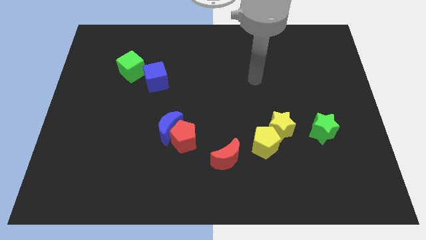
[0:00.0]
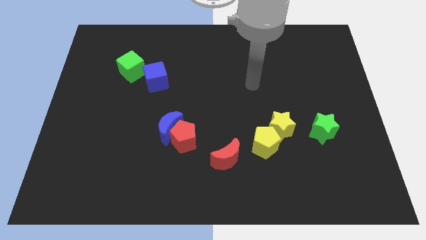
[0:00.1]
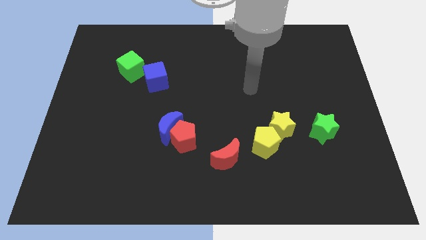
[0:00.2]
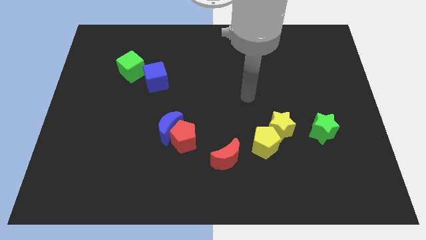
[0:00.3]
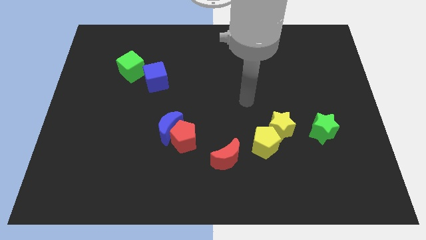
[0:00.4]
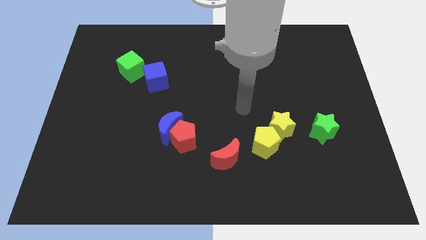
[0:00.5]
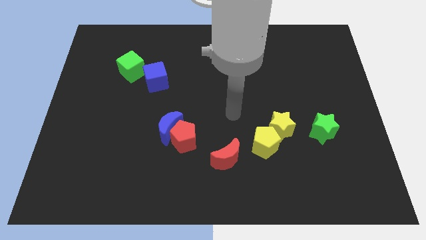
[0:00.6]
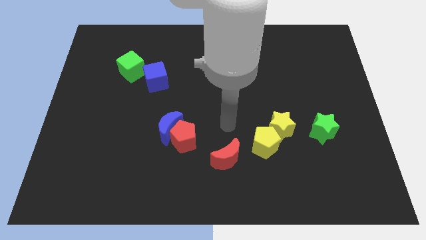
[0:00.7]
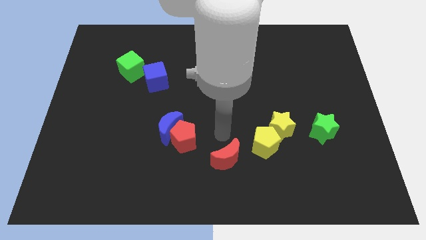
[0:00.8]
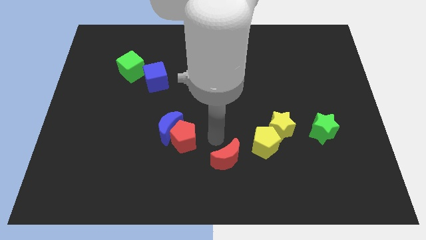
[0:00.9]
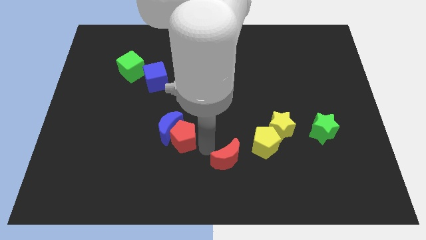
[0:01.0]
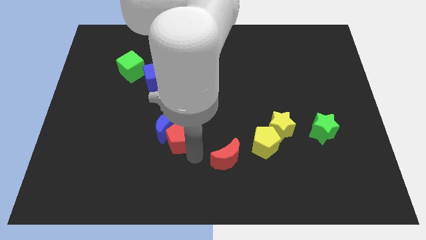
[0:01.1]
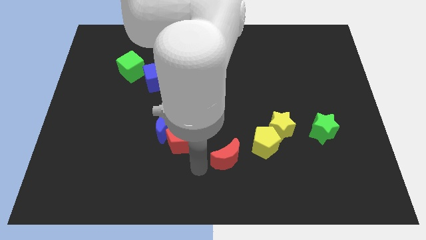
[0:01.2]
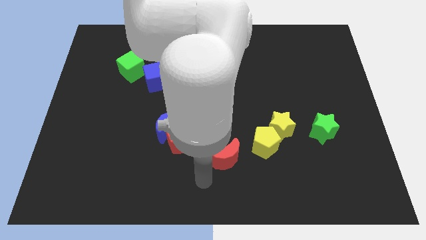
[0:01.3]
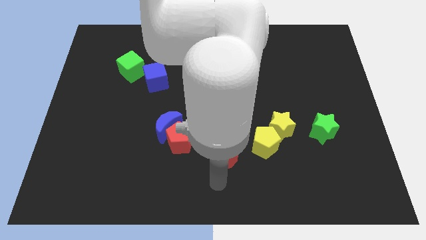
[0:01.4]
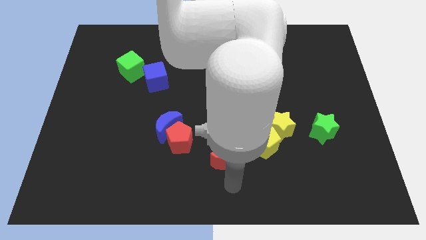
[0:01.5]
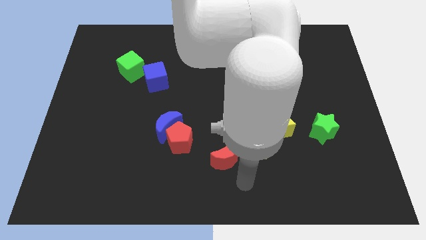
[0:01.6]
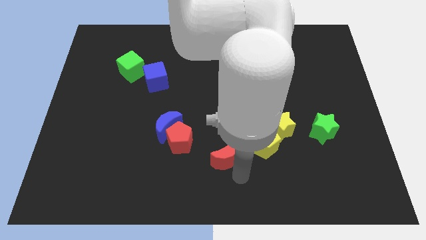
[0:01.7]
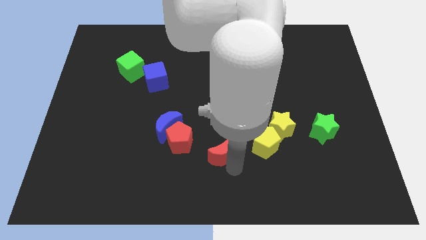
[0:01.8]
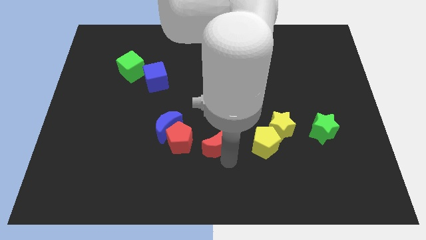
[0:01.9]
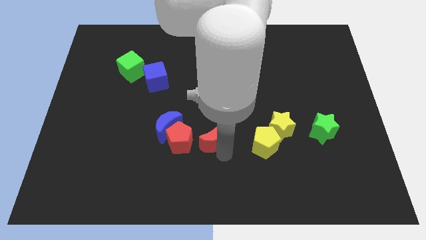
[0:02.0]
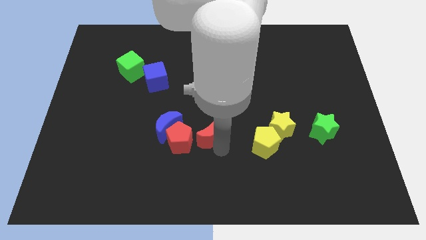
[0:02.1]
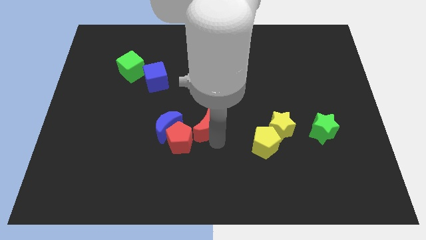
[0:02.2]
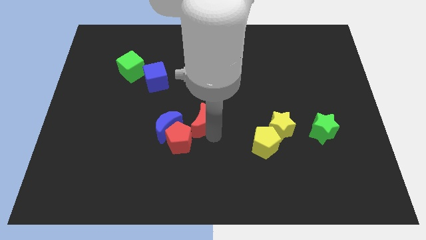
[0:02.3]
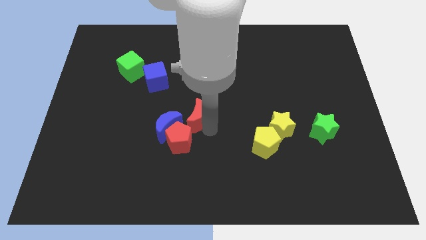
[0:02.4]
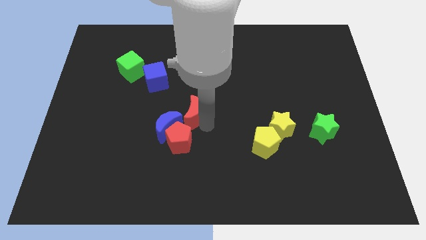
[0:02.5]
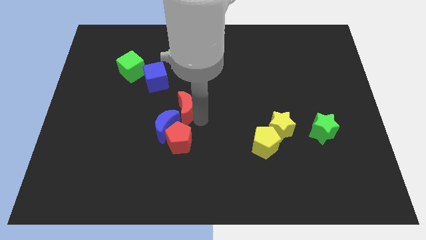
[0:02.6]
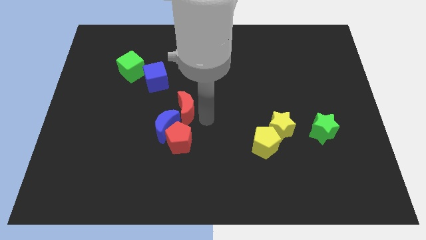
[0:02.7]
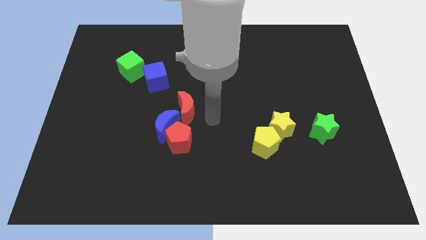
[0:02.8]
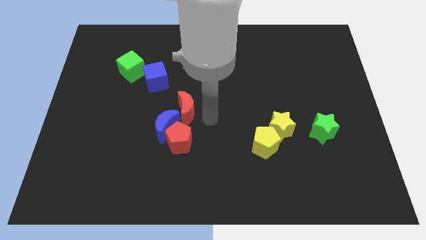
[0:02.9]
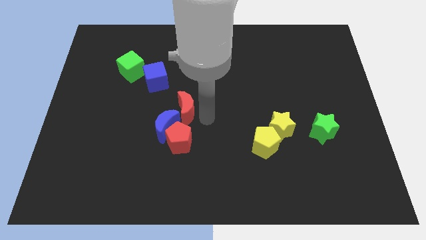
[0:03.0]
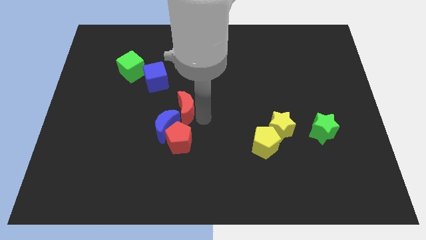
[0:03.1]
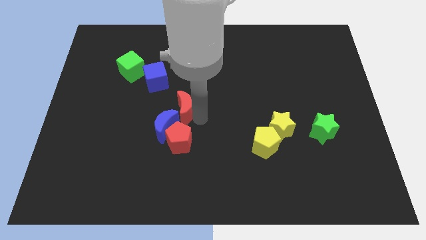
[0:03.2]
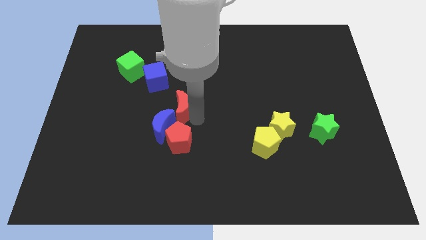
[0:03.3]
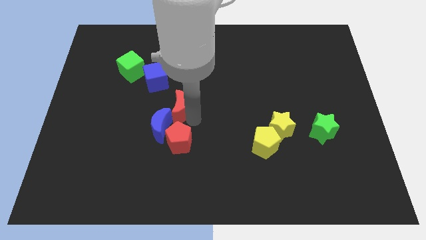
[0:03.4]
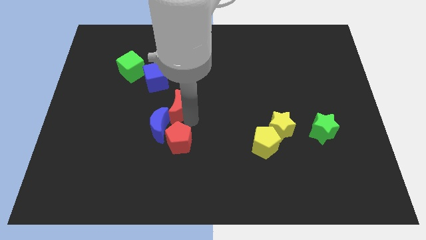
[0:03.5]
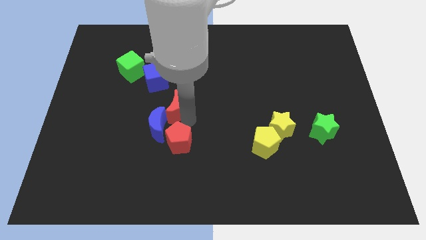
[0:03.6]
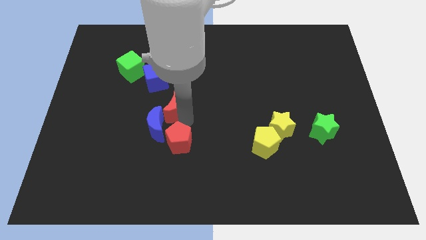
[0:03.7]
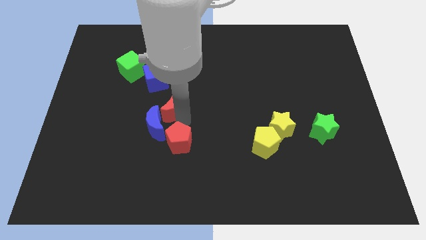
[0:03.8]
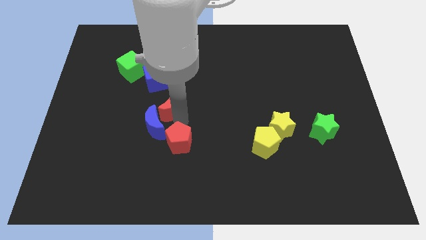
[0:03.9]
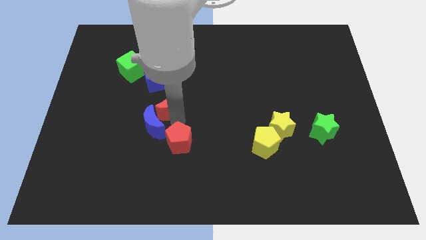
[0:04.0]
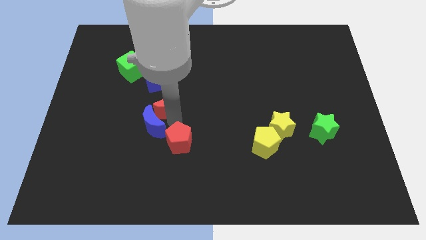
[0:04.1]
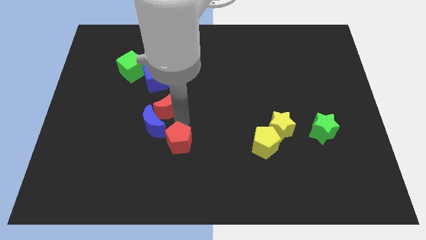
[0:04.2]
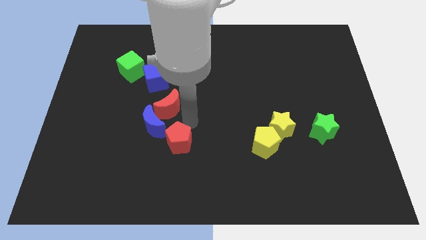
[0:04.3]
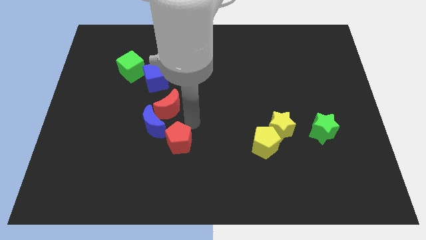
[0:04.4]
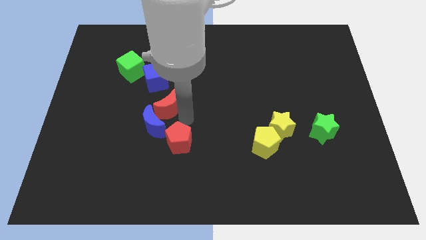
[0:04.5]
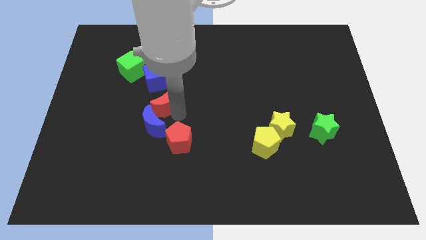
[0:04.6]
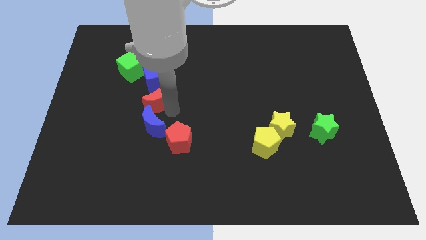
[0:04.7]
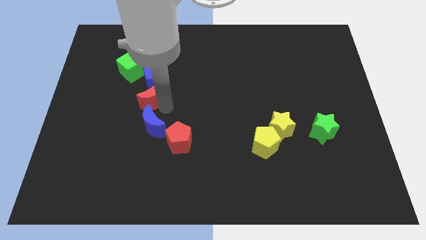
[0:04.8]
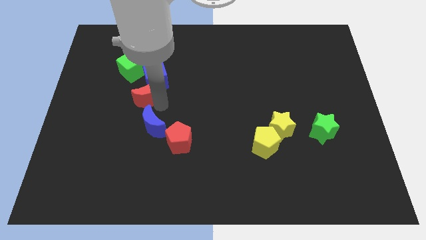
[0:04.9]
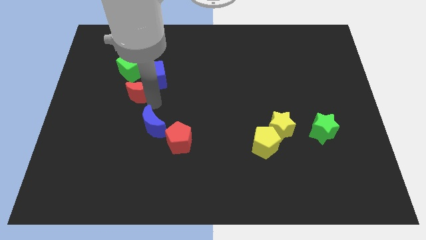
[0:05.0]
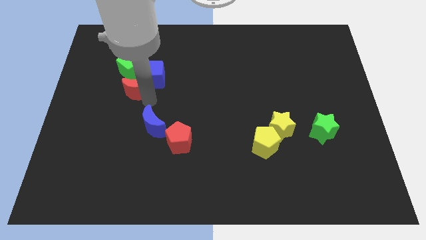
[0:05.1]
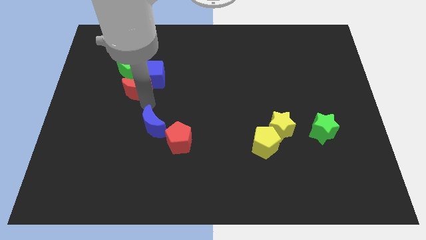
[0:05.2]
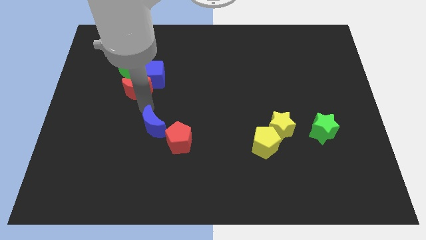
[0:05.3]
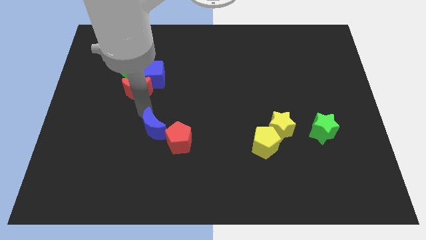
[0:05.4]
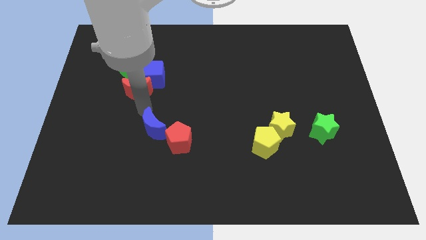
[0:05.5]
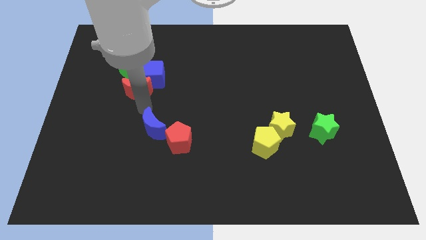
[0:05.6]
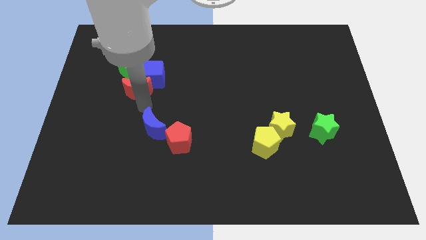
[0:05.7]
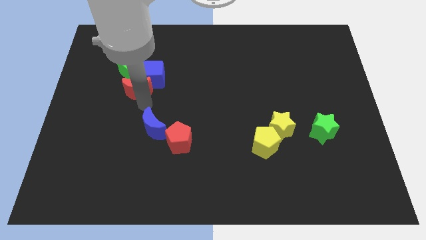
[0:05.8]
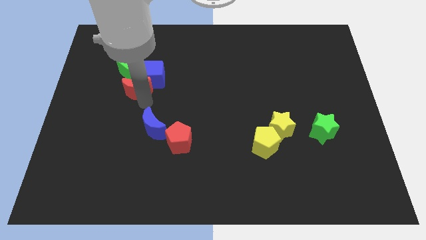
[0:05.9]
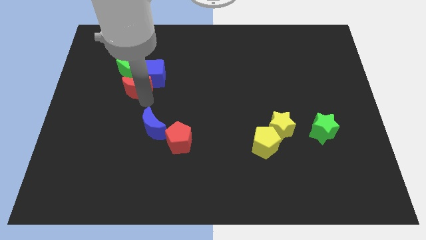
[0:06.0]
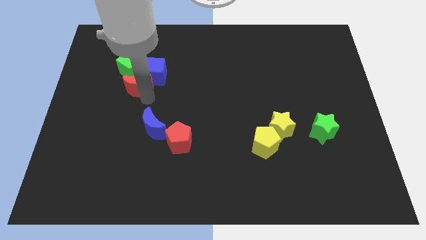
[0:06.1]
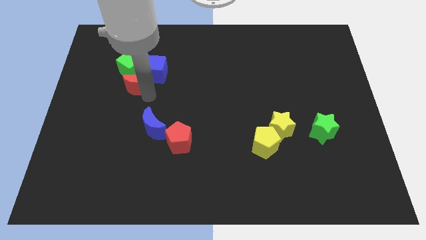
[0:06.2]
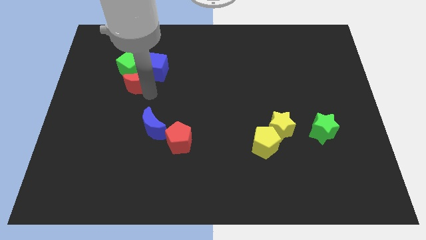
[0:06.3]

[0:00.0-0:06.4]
push the red moon towards the green cube
